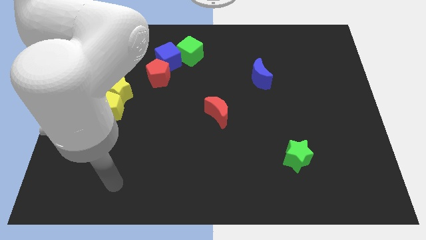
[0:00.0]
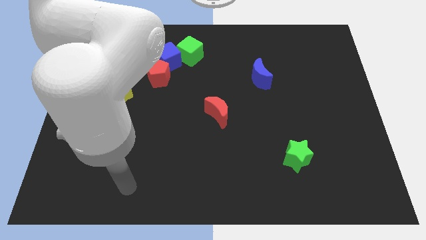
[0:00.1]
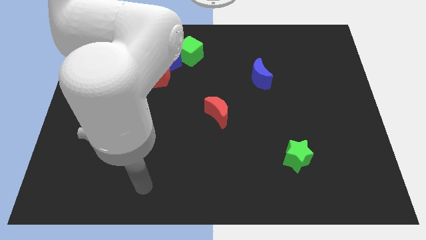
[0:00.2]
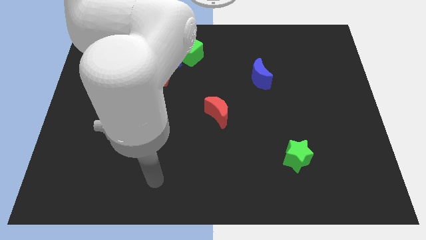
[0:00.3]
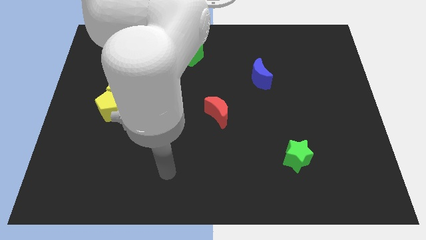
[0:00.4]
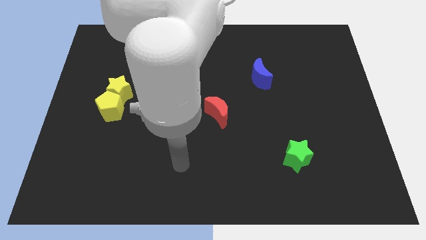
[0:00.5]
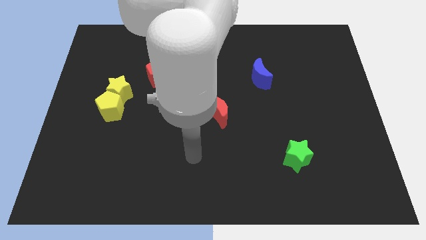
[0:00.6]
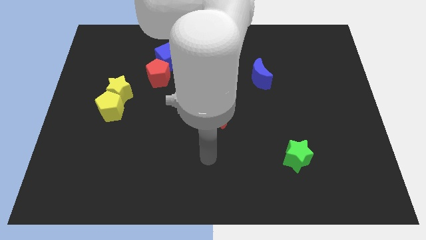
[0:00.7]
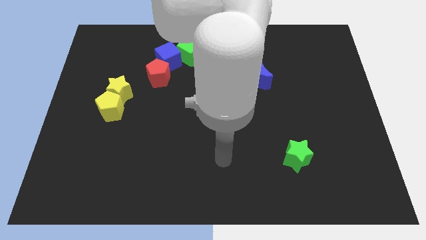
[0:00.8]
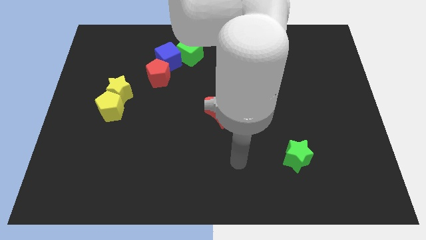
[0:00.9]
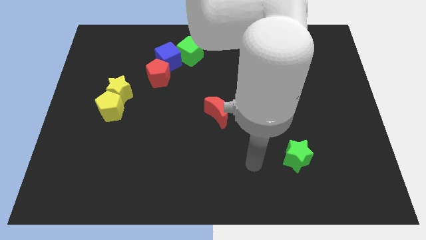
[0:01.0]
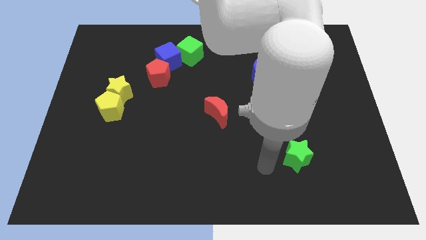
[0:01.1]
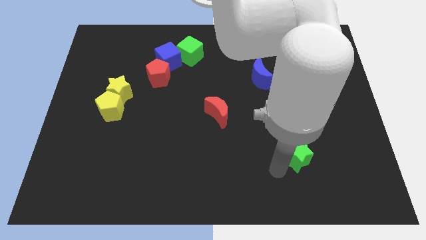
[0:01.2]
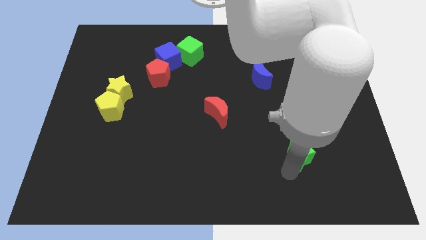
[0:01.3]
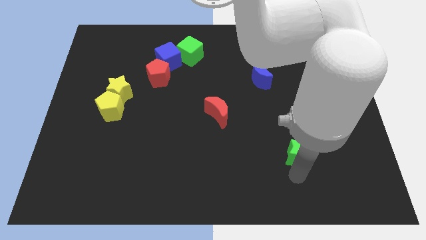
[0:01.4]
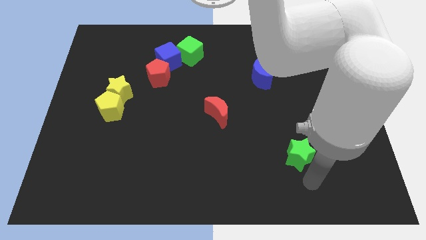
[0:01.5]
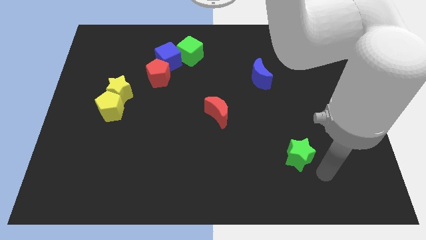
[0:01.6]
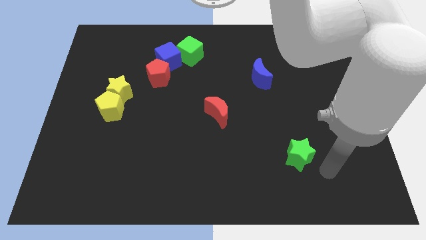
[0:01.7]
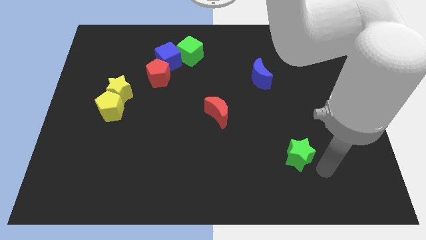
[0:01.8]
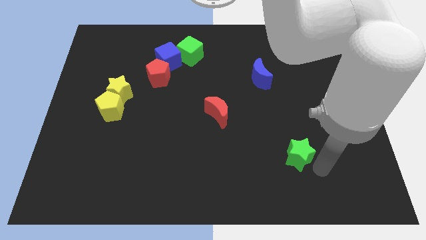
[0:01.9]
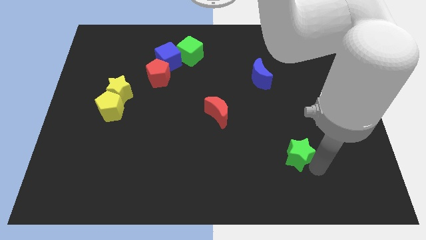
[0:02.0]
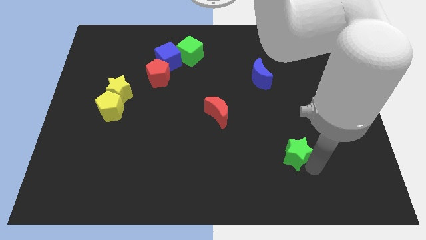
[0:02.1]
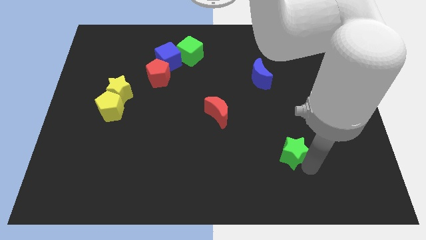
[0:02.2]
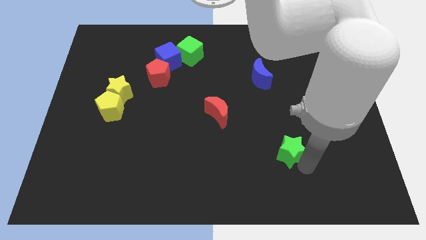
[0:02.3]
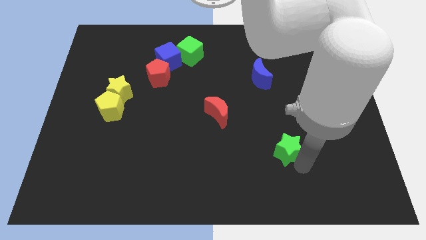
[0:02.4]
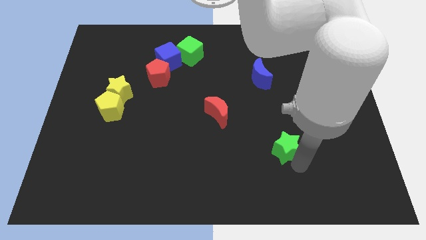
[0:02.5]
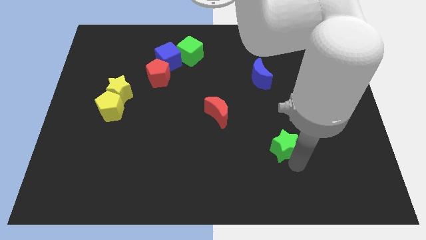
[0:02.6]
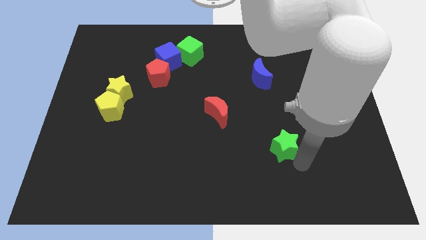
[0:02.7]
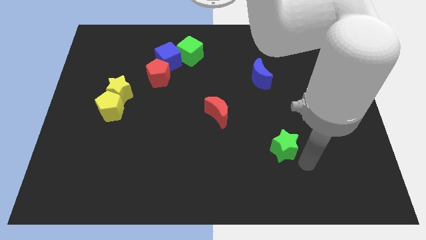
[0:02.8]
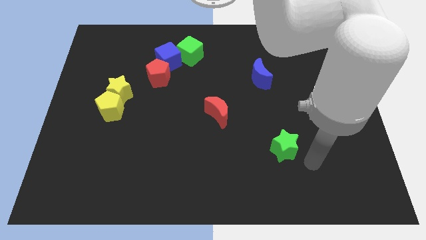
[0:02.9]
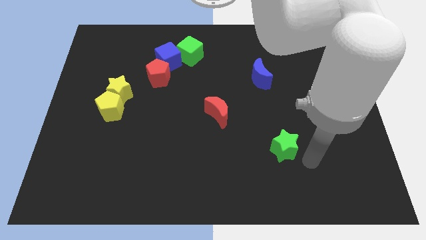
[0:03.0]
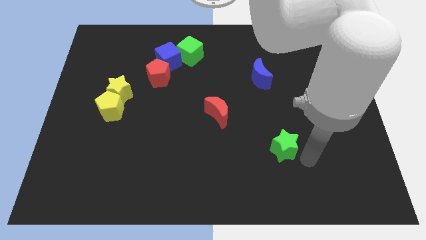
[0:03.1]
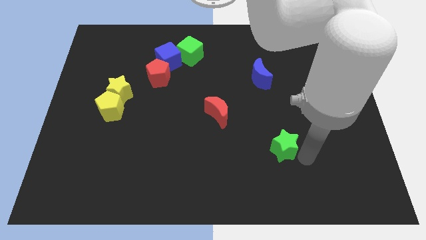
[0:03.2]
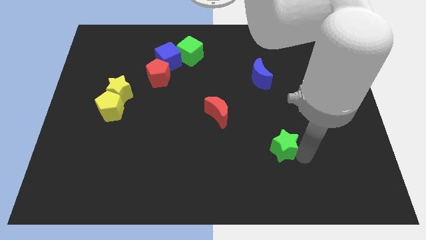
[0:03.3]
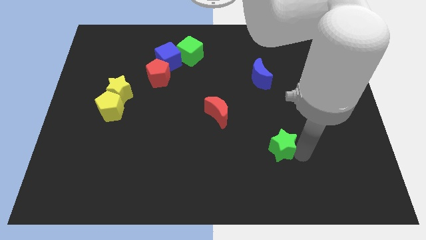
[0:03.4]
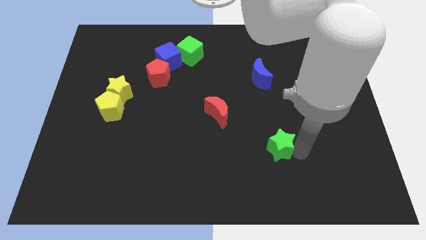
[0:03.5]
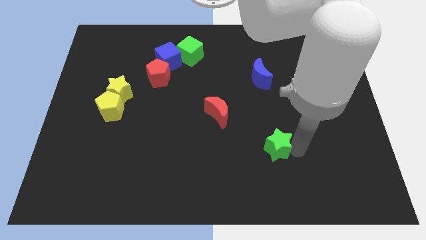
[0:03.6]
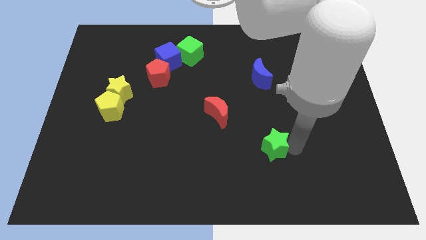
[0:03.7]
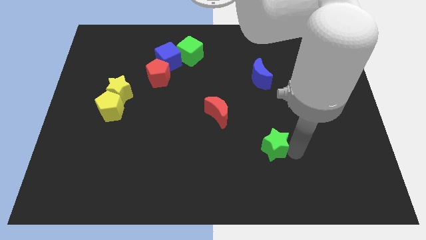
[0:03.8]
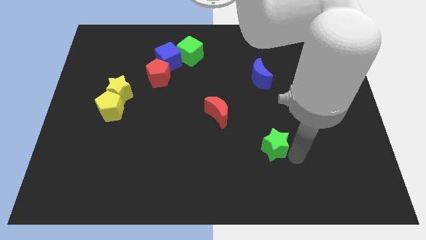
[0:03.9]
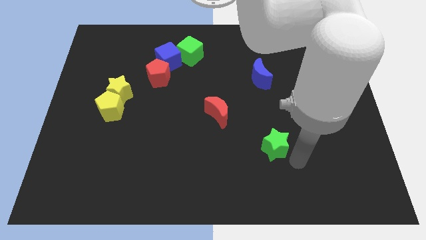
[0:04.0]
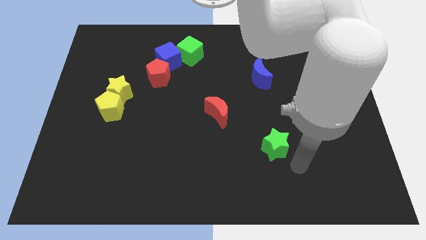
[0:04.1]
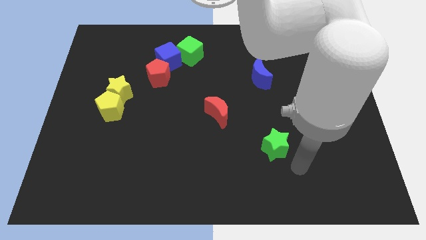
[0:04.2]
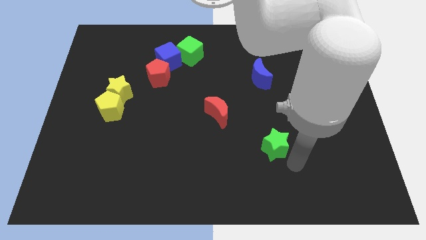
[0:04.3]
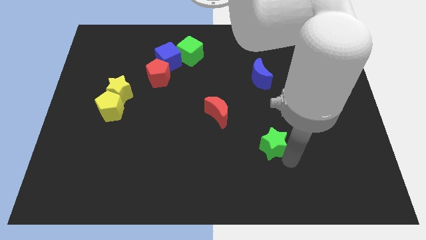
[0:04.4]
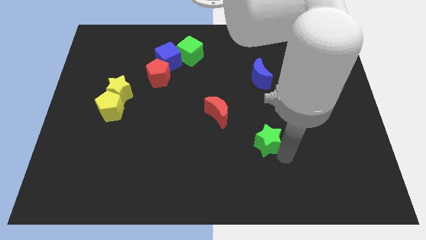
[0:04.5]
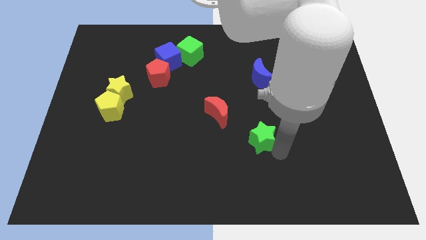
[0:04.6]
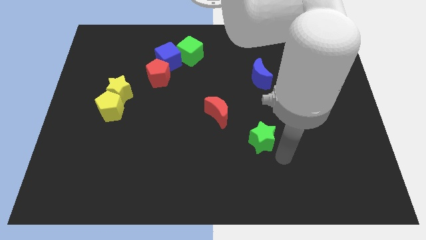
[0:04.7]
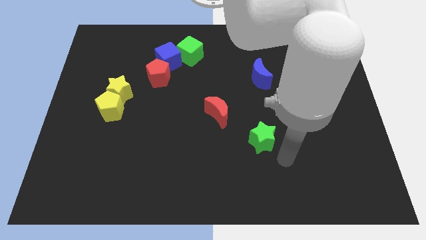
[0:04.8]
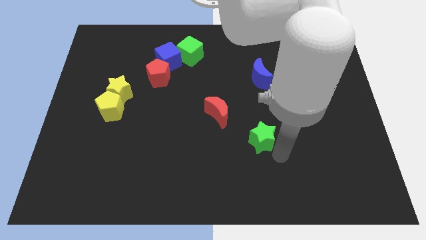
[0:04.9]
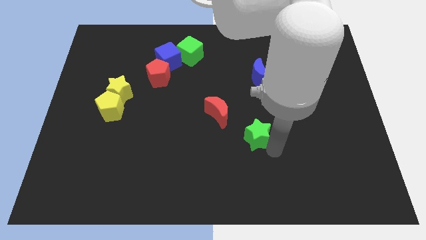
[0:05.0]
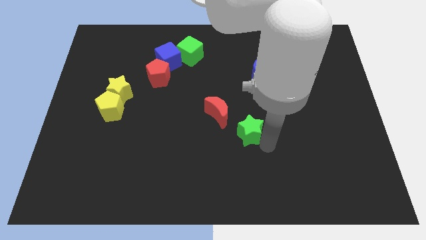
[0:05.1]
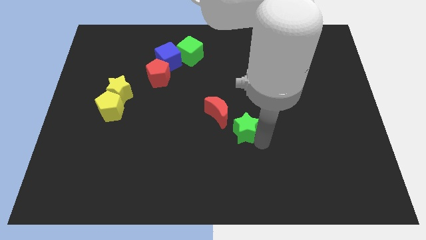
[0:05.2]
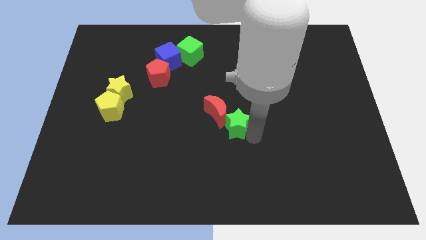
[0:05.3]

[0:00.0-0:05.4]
put the green star towards the red moon

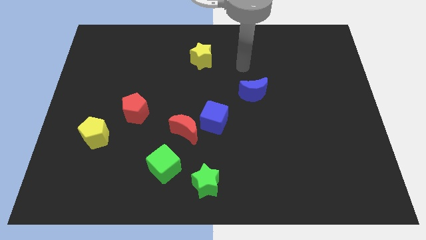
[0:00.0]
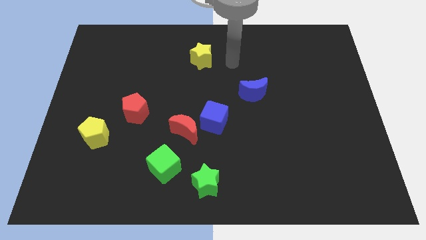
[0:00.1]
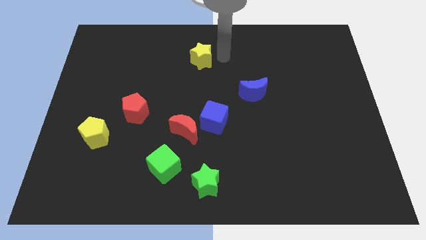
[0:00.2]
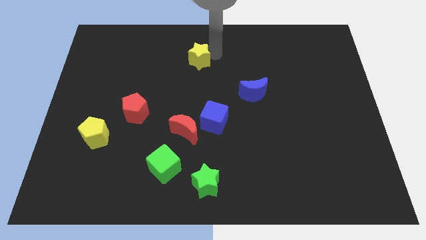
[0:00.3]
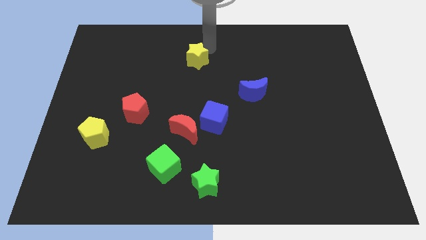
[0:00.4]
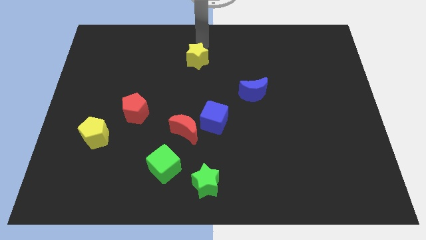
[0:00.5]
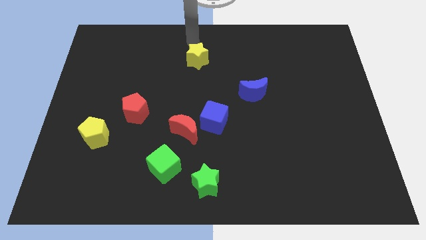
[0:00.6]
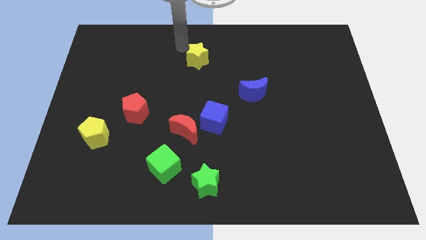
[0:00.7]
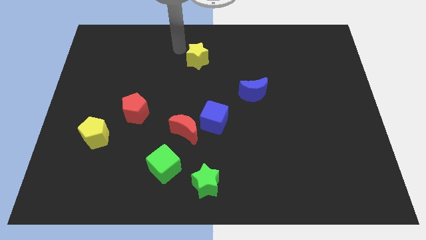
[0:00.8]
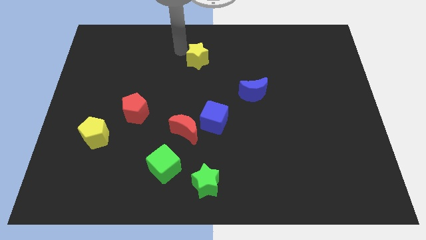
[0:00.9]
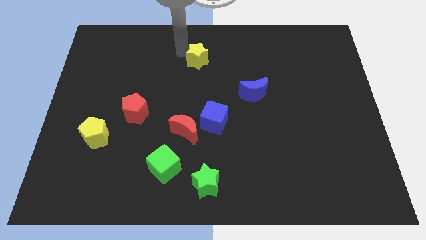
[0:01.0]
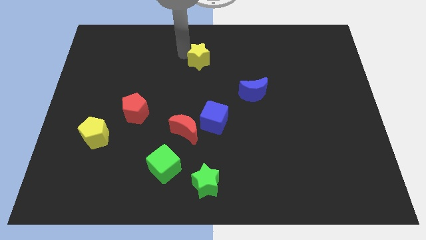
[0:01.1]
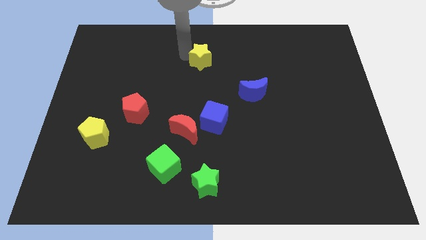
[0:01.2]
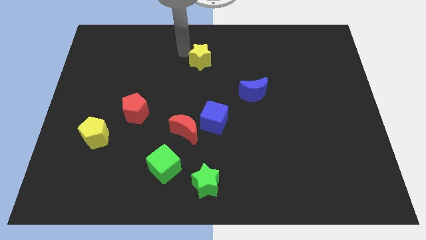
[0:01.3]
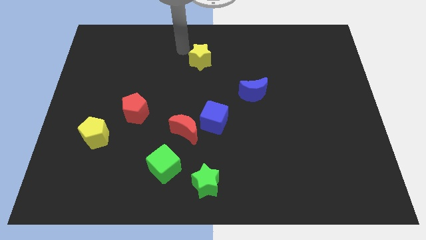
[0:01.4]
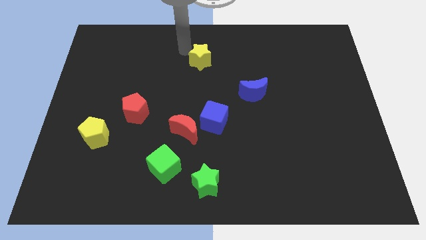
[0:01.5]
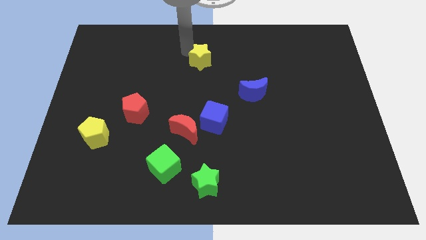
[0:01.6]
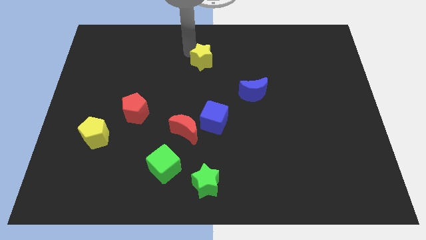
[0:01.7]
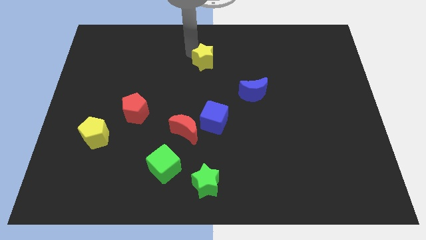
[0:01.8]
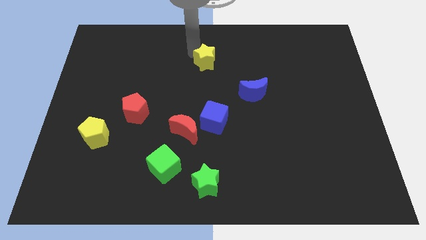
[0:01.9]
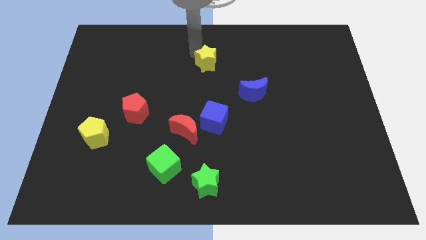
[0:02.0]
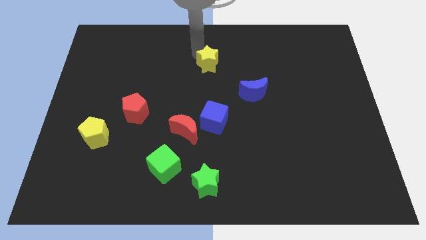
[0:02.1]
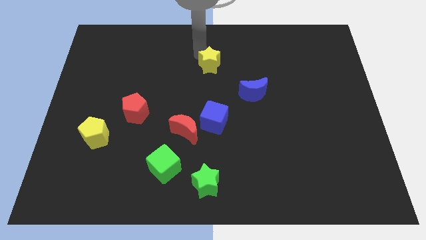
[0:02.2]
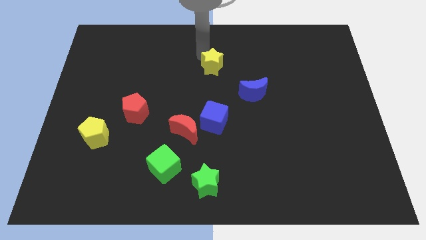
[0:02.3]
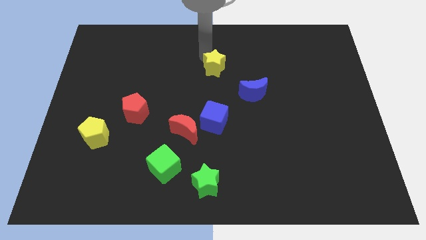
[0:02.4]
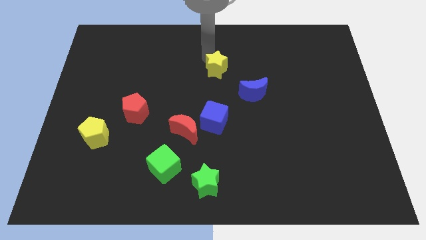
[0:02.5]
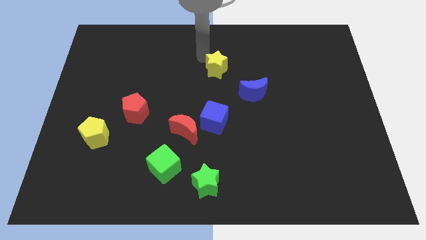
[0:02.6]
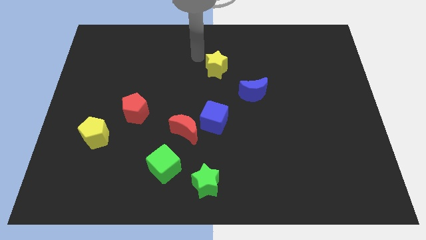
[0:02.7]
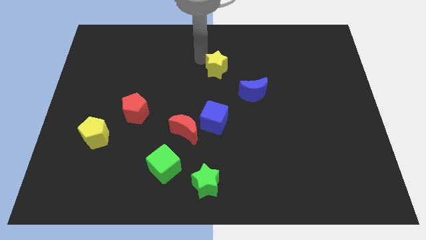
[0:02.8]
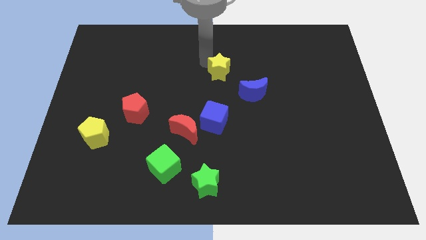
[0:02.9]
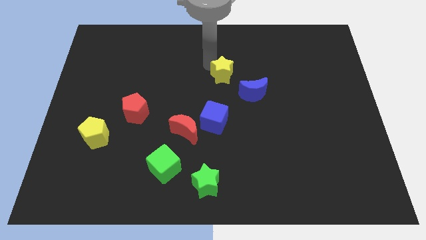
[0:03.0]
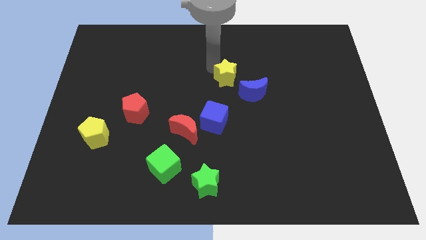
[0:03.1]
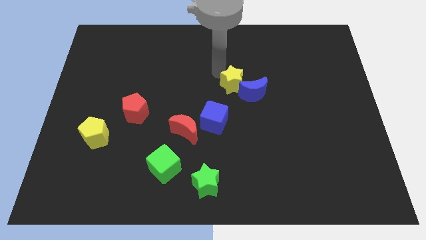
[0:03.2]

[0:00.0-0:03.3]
slide the yellow star towards the blue moon
